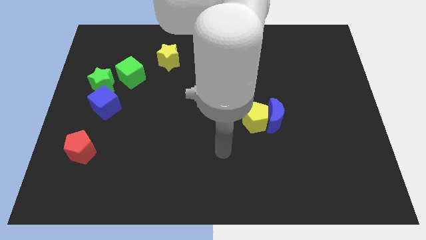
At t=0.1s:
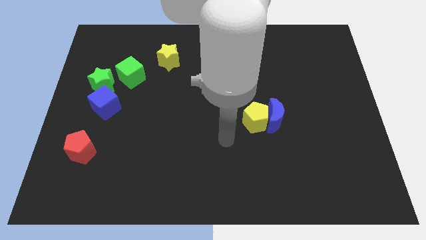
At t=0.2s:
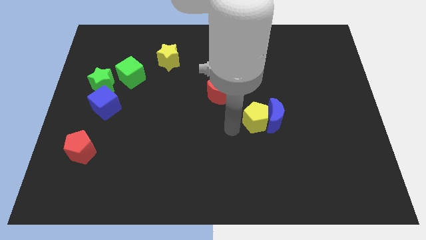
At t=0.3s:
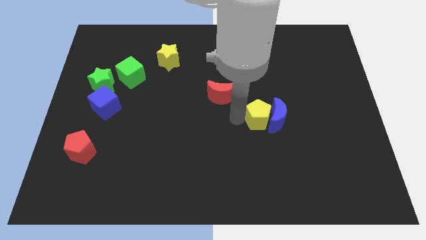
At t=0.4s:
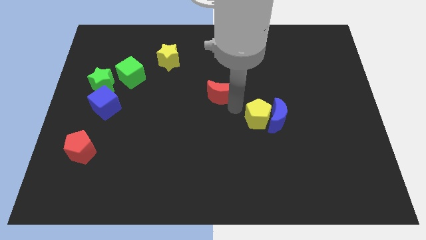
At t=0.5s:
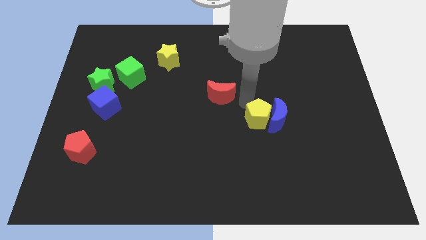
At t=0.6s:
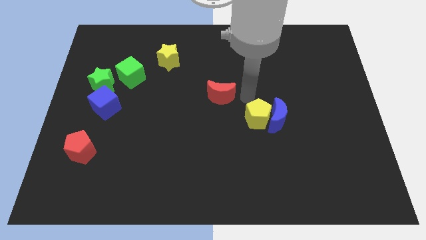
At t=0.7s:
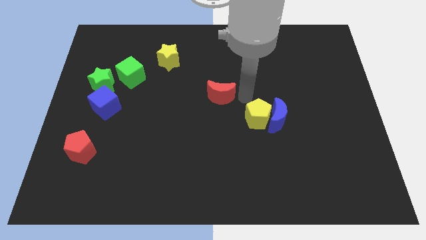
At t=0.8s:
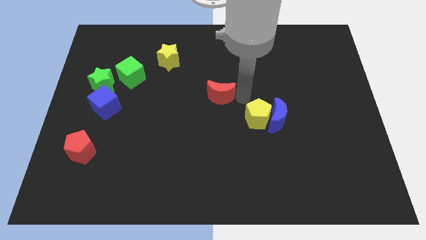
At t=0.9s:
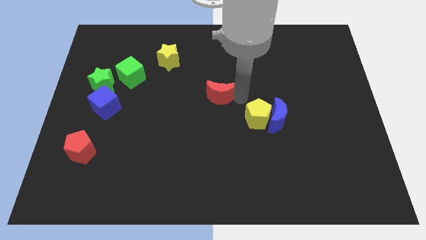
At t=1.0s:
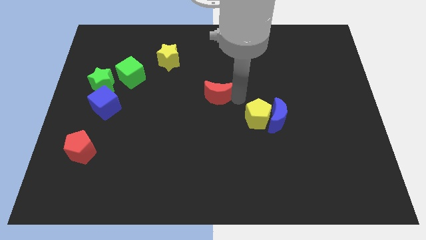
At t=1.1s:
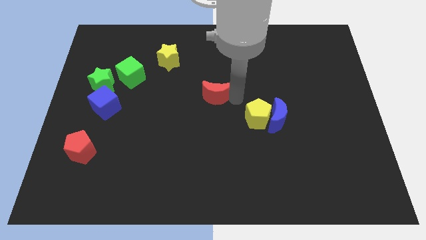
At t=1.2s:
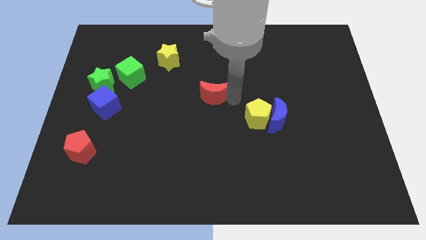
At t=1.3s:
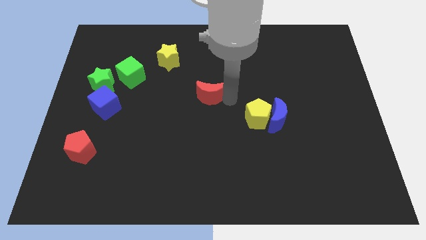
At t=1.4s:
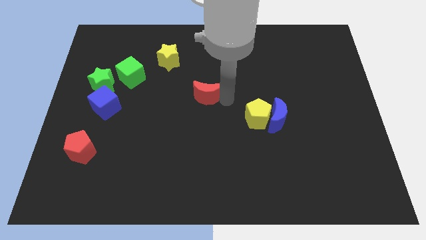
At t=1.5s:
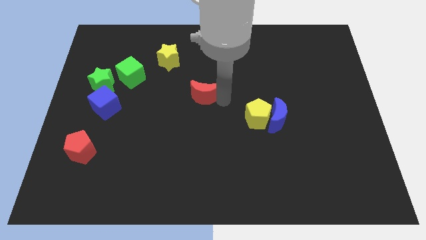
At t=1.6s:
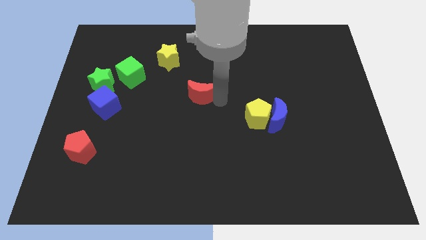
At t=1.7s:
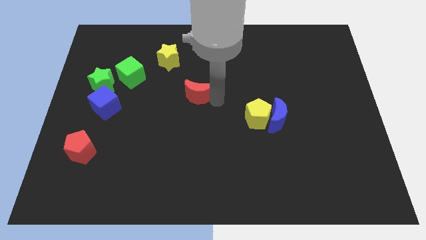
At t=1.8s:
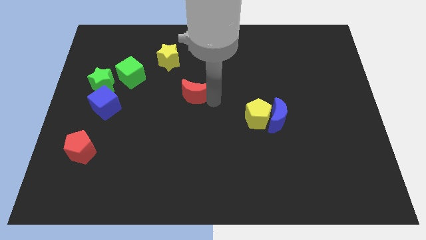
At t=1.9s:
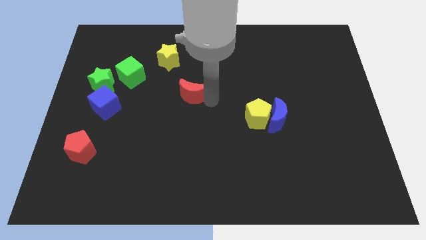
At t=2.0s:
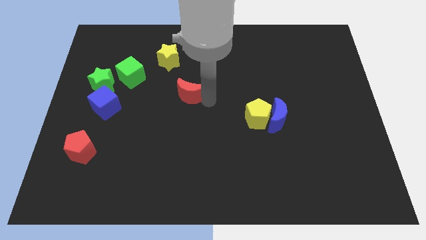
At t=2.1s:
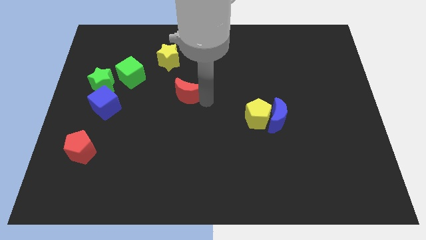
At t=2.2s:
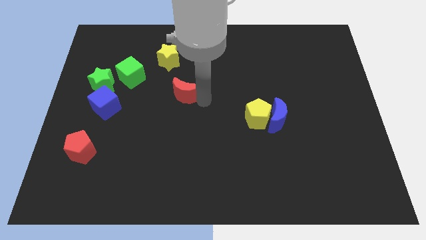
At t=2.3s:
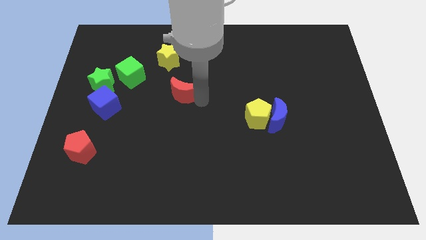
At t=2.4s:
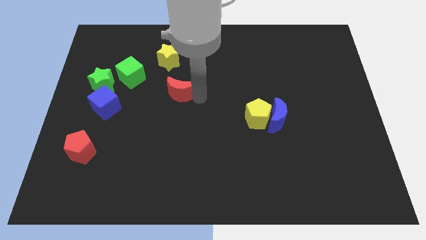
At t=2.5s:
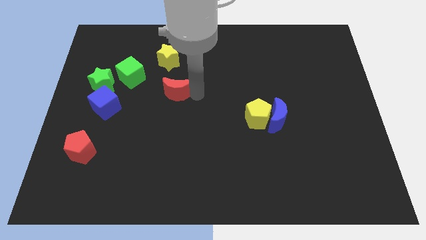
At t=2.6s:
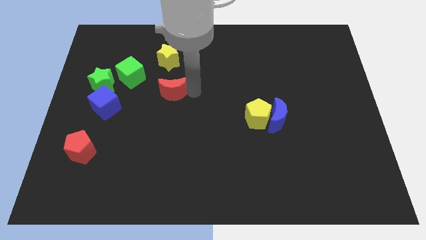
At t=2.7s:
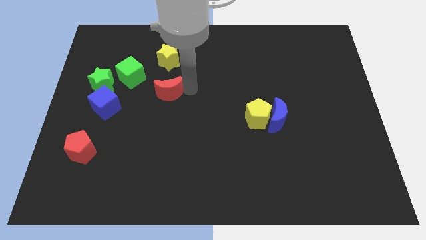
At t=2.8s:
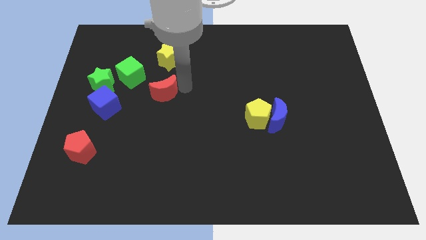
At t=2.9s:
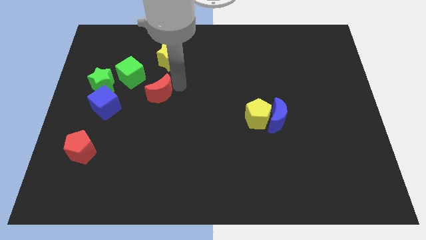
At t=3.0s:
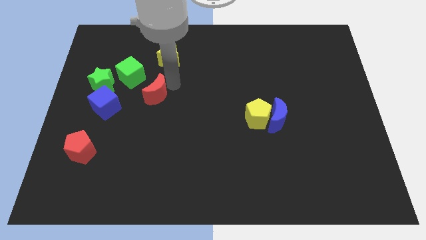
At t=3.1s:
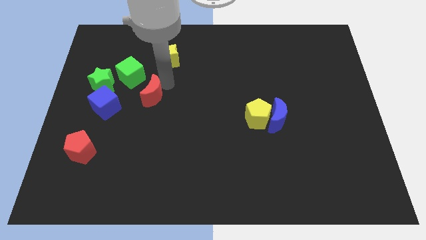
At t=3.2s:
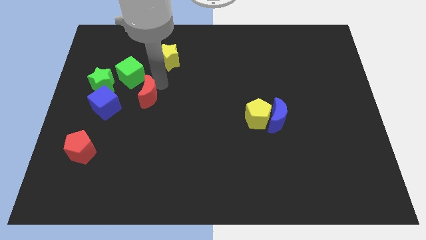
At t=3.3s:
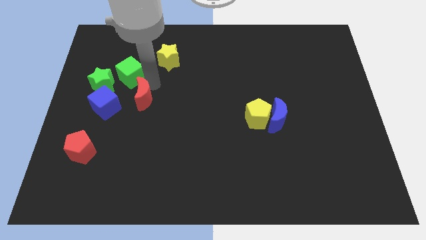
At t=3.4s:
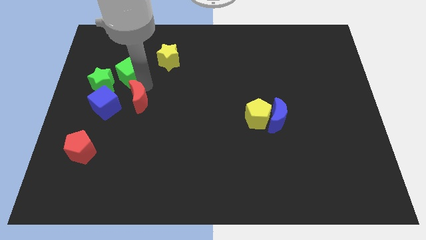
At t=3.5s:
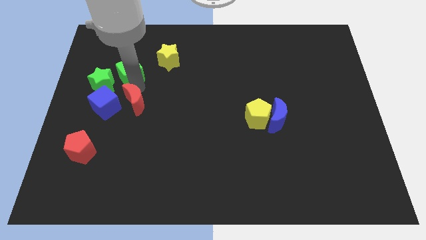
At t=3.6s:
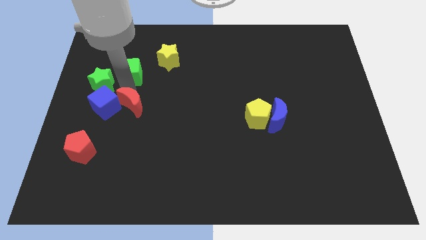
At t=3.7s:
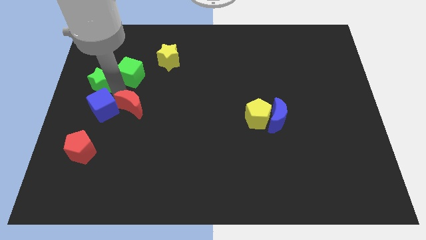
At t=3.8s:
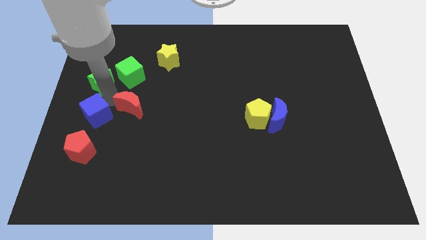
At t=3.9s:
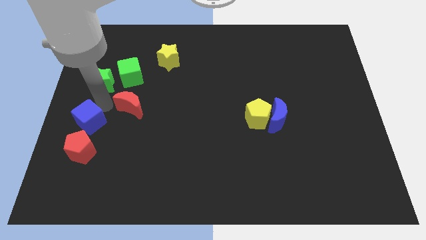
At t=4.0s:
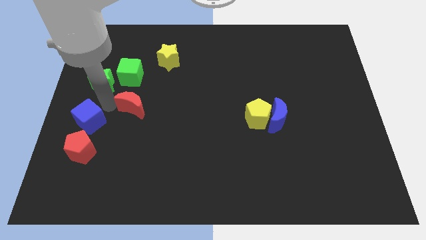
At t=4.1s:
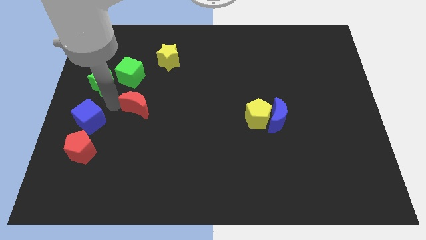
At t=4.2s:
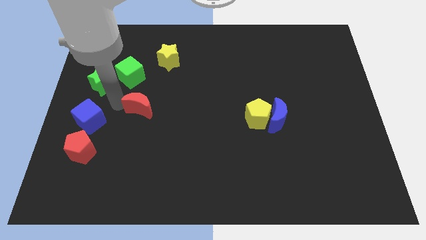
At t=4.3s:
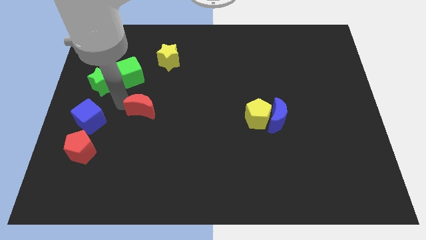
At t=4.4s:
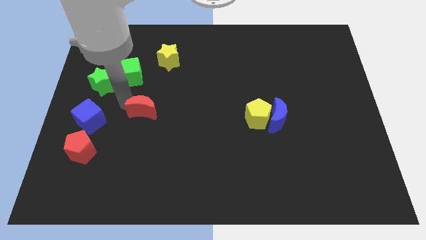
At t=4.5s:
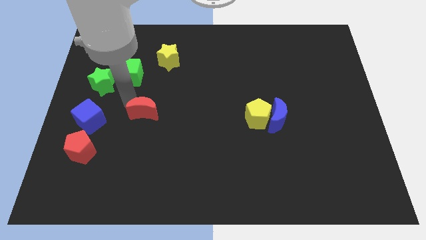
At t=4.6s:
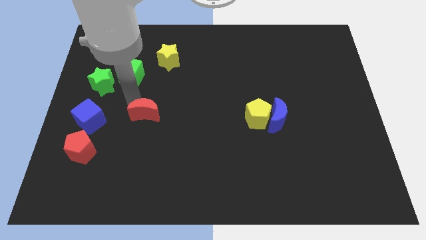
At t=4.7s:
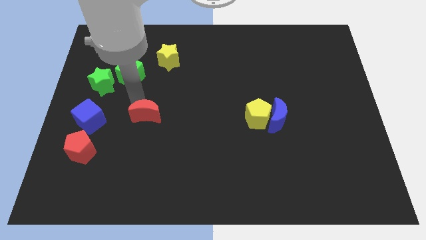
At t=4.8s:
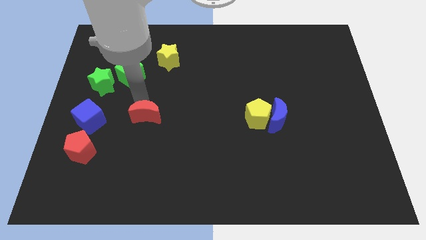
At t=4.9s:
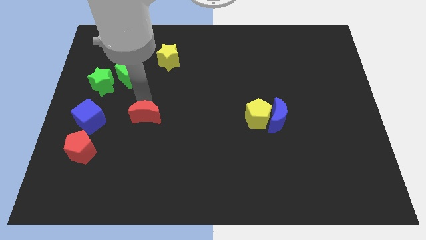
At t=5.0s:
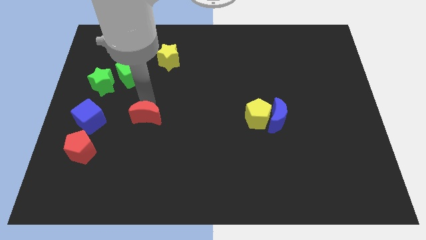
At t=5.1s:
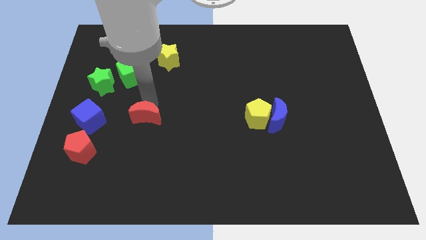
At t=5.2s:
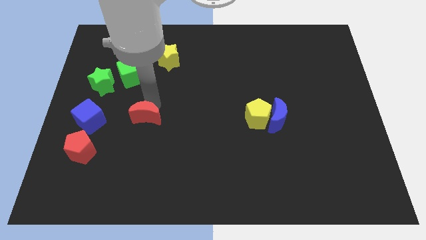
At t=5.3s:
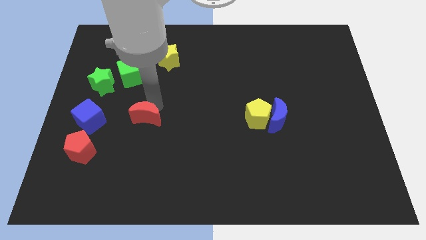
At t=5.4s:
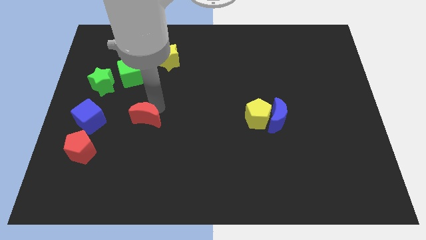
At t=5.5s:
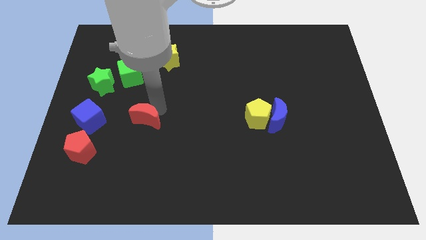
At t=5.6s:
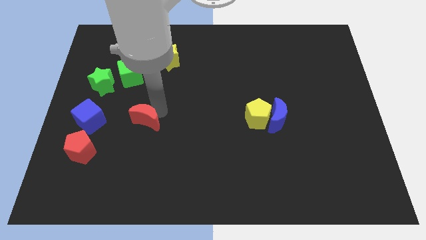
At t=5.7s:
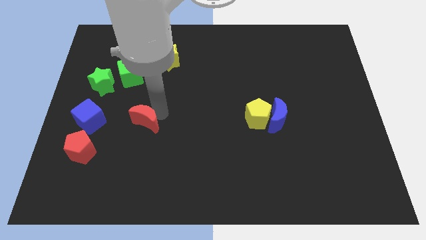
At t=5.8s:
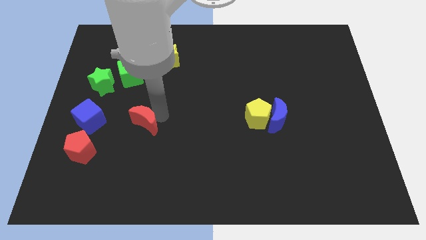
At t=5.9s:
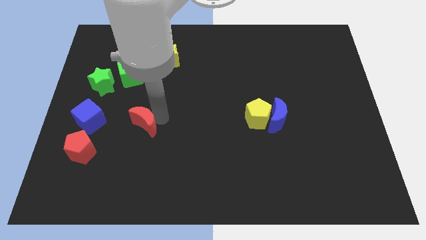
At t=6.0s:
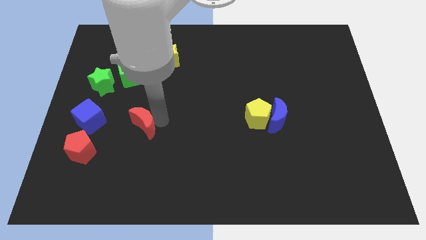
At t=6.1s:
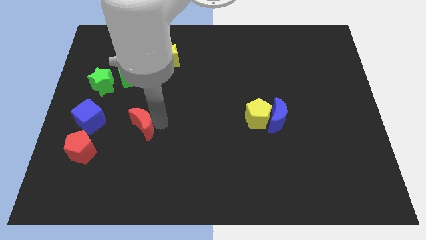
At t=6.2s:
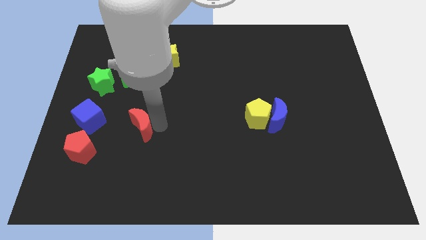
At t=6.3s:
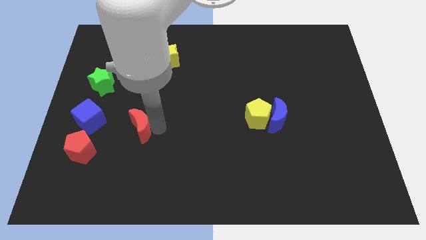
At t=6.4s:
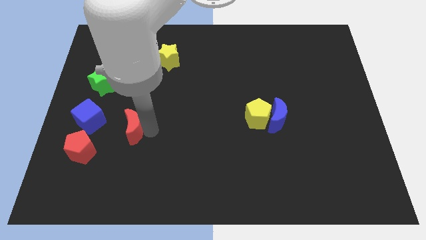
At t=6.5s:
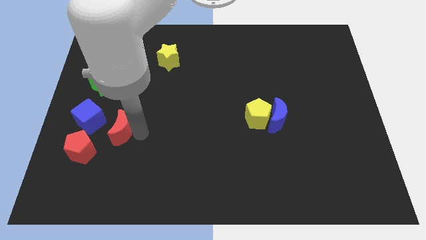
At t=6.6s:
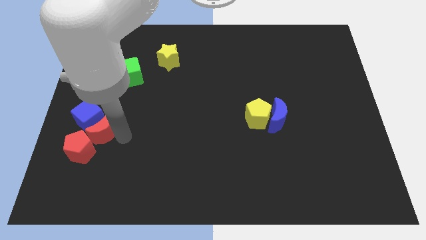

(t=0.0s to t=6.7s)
slide the red moon to the top side of the red pentagon
